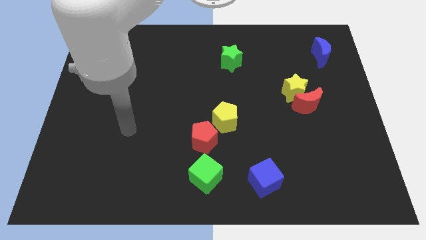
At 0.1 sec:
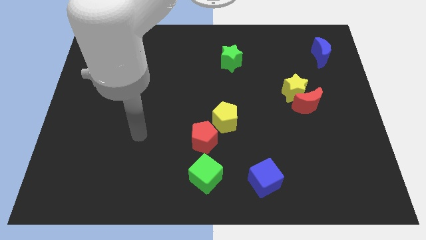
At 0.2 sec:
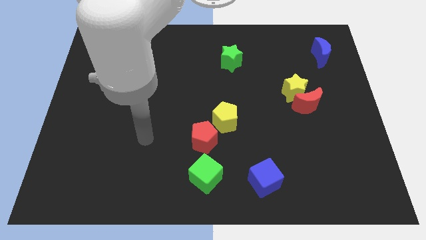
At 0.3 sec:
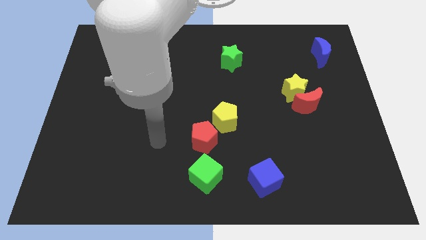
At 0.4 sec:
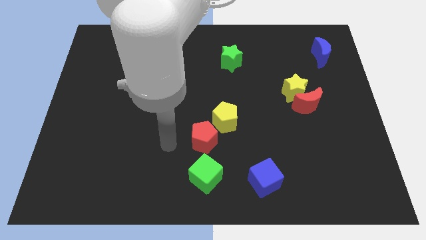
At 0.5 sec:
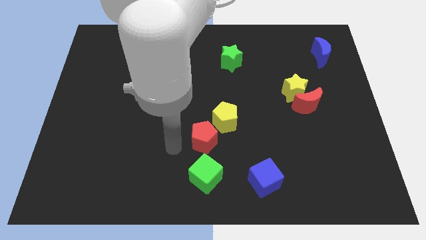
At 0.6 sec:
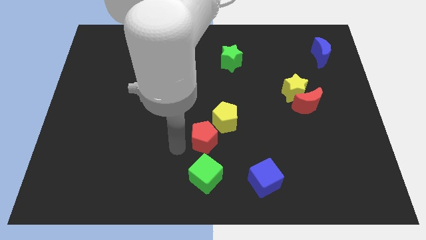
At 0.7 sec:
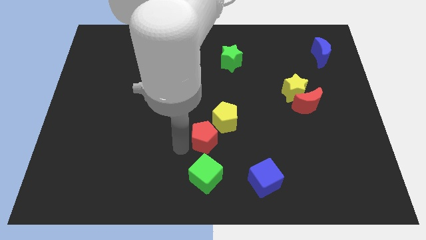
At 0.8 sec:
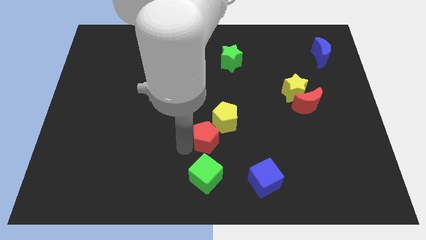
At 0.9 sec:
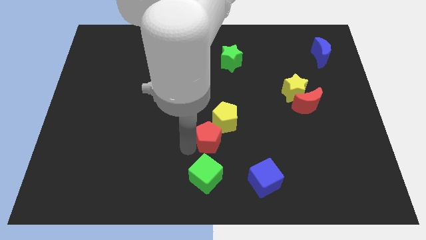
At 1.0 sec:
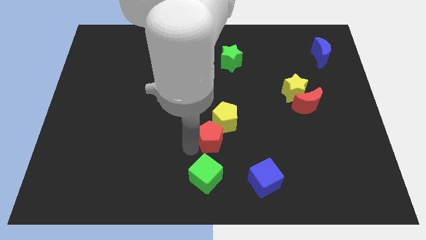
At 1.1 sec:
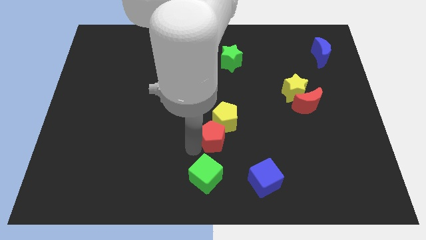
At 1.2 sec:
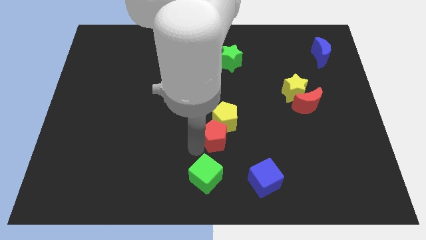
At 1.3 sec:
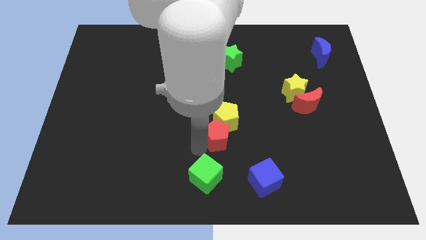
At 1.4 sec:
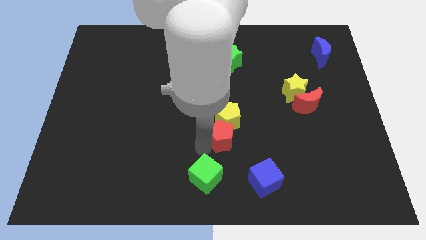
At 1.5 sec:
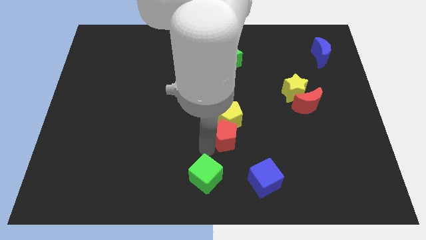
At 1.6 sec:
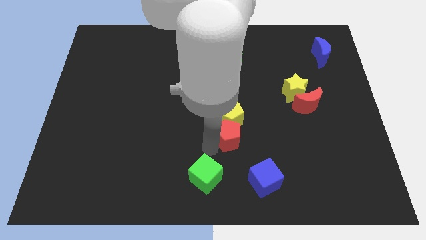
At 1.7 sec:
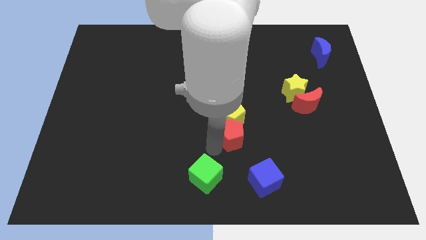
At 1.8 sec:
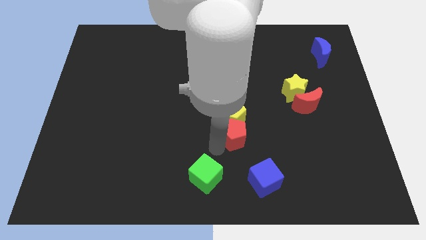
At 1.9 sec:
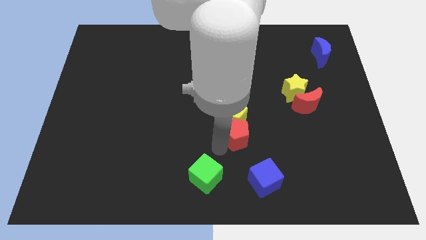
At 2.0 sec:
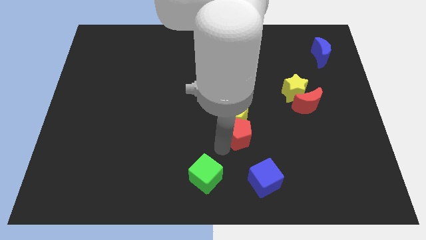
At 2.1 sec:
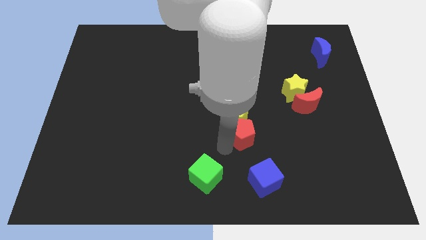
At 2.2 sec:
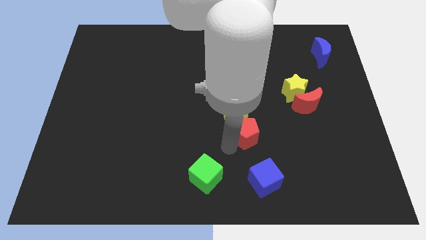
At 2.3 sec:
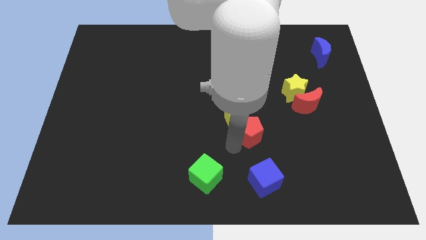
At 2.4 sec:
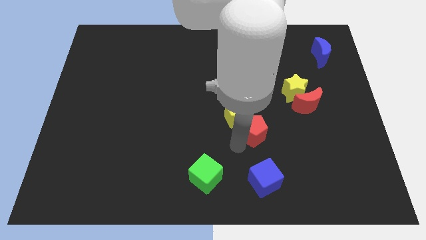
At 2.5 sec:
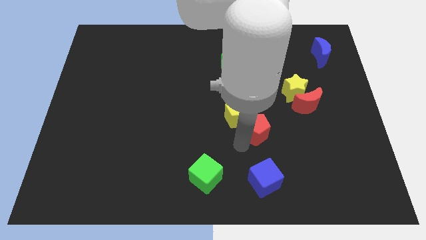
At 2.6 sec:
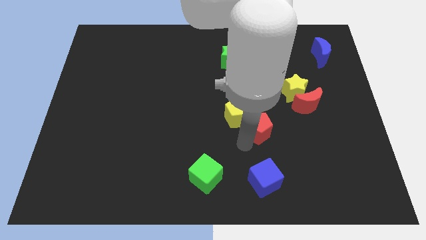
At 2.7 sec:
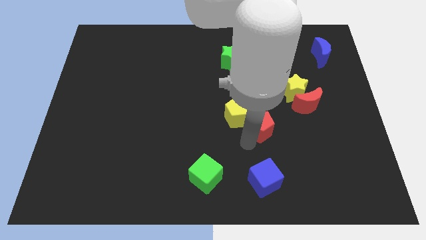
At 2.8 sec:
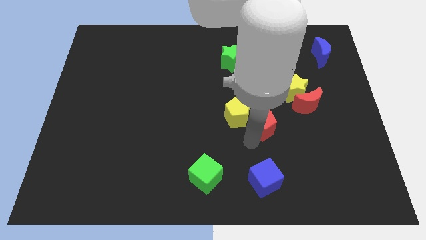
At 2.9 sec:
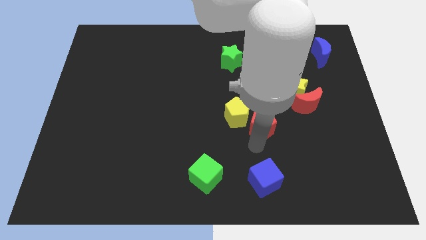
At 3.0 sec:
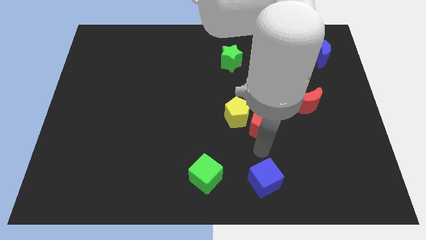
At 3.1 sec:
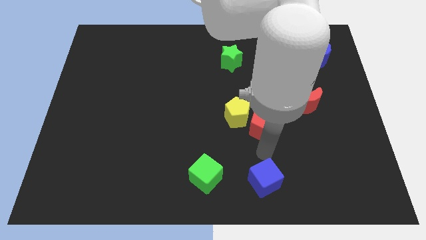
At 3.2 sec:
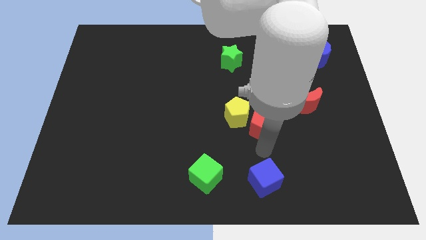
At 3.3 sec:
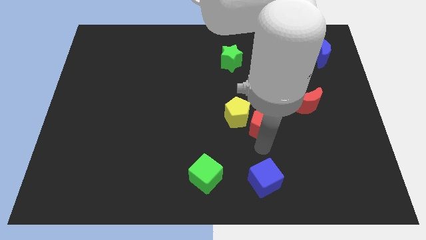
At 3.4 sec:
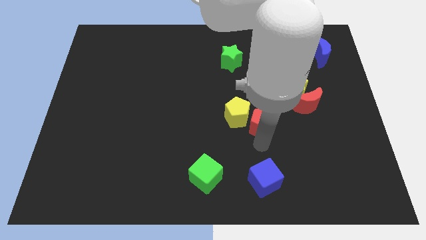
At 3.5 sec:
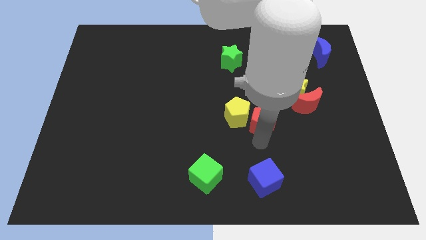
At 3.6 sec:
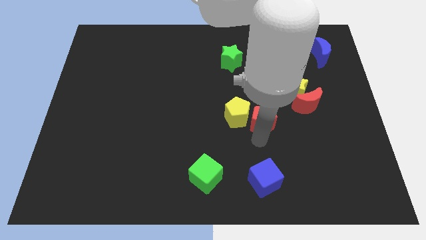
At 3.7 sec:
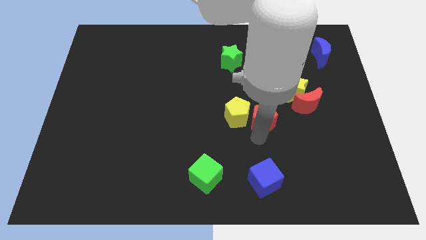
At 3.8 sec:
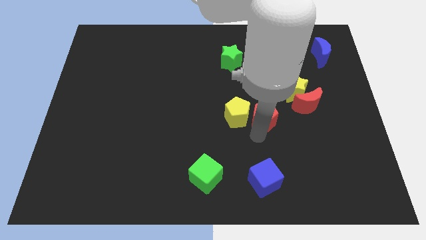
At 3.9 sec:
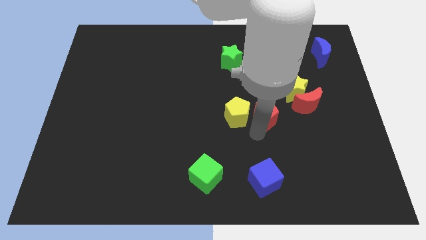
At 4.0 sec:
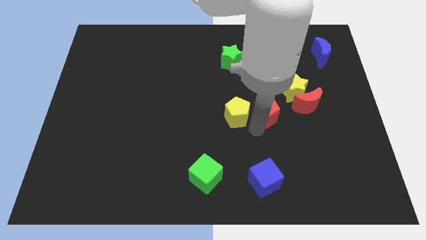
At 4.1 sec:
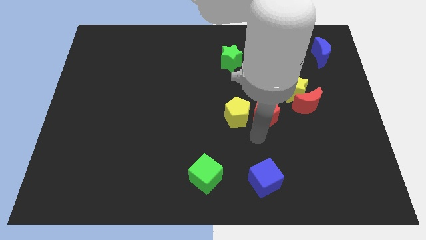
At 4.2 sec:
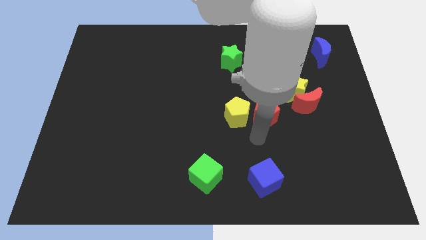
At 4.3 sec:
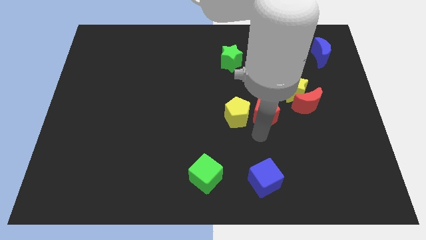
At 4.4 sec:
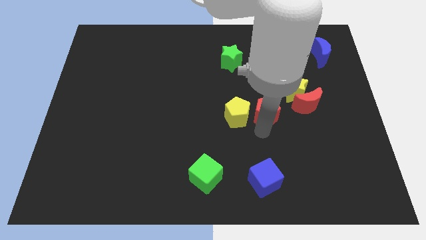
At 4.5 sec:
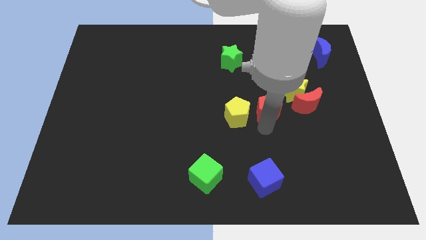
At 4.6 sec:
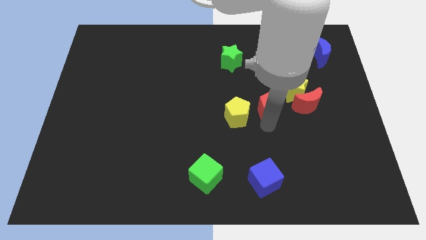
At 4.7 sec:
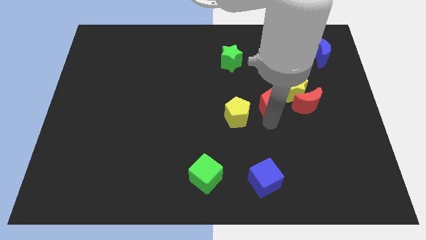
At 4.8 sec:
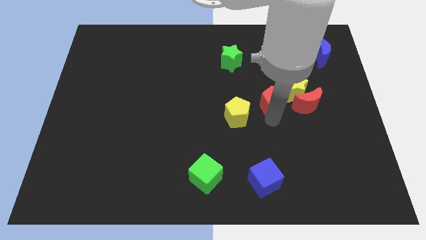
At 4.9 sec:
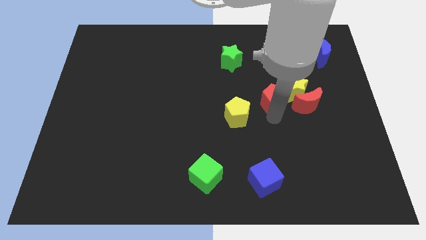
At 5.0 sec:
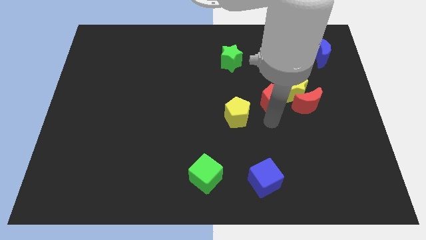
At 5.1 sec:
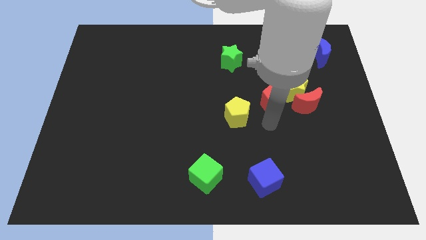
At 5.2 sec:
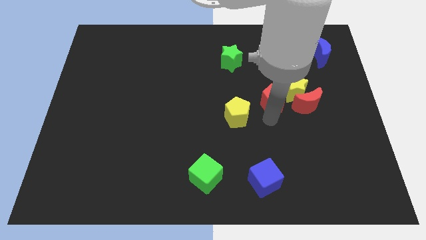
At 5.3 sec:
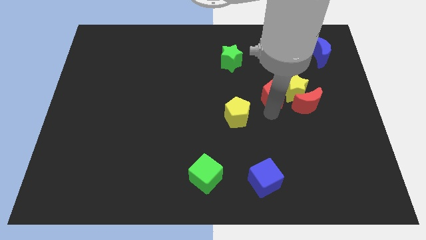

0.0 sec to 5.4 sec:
push the red pentagon diagonally upwards and right

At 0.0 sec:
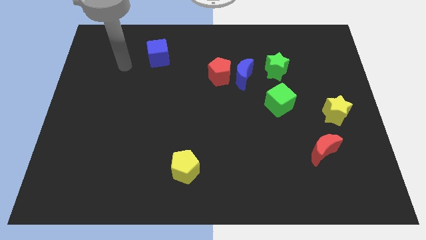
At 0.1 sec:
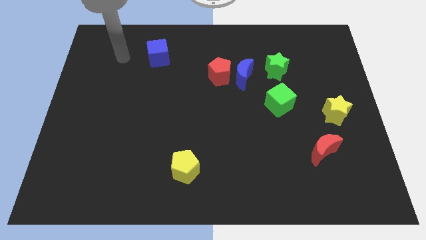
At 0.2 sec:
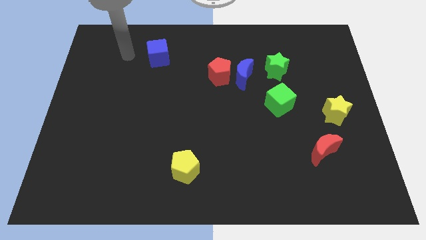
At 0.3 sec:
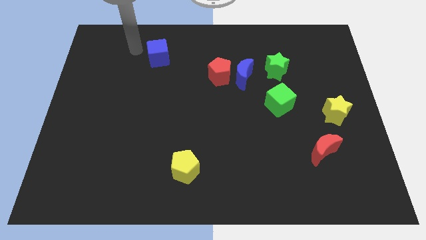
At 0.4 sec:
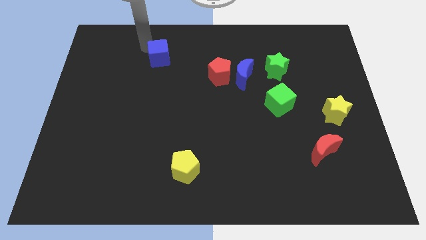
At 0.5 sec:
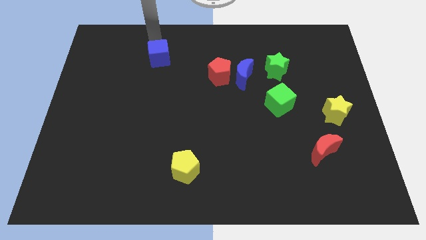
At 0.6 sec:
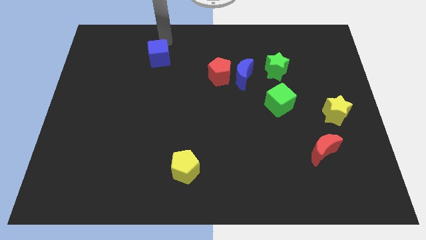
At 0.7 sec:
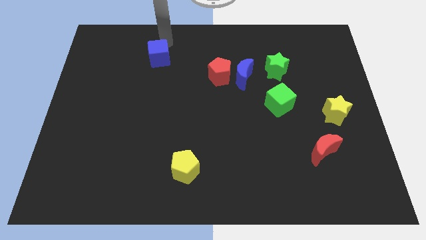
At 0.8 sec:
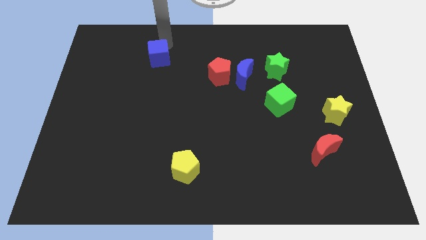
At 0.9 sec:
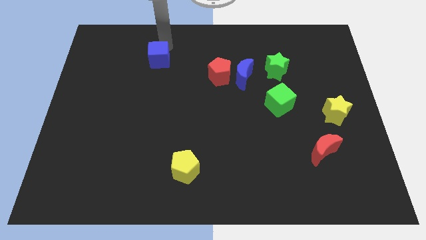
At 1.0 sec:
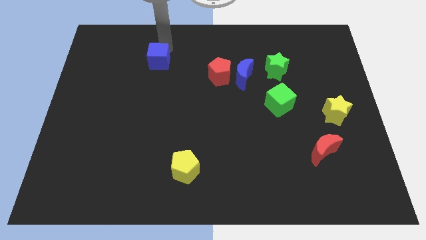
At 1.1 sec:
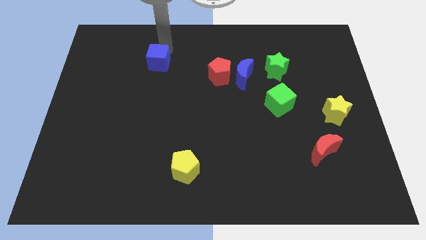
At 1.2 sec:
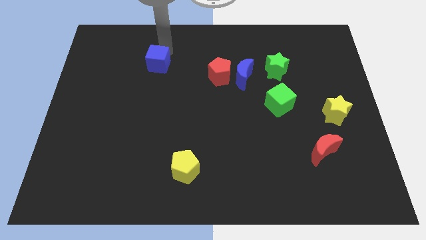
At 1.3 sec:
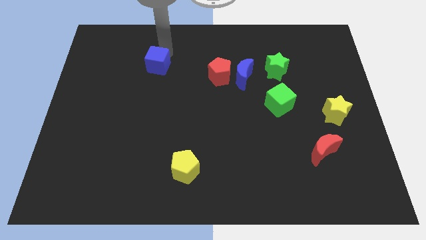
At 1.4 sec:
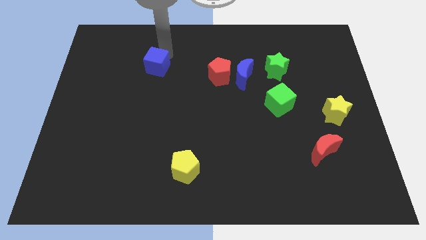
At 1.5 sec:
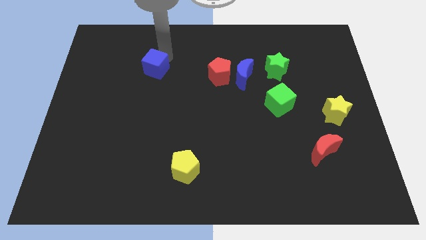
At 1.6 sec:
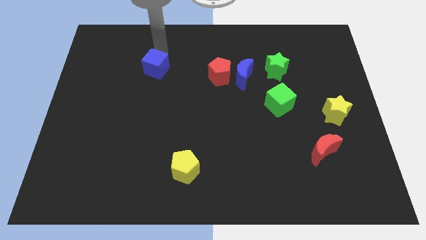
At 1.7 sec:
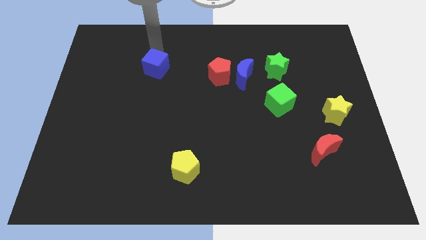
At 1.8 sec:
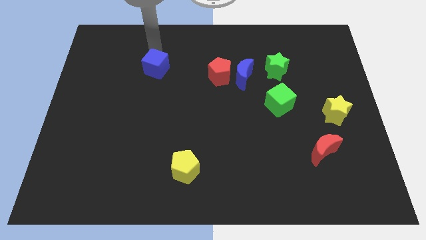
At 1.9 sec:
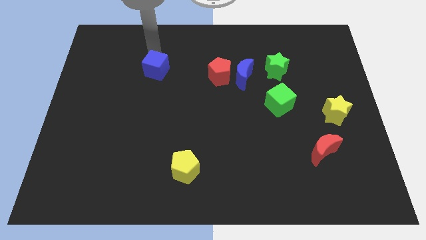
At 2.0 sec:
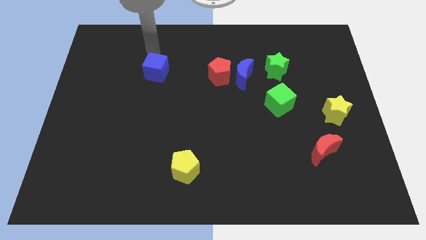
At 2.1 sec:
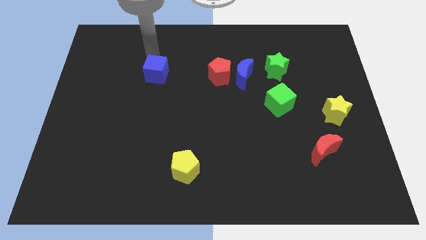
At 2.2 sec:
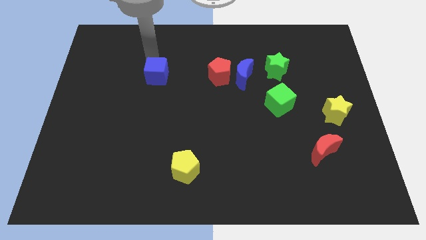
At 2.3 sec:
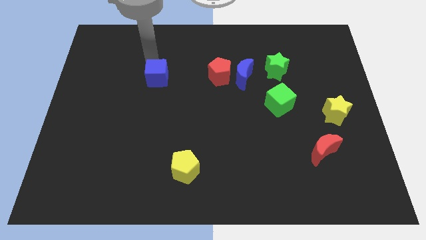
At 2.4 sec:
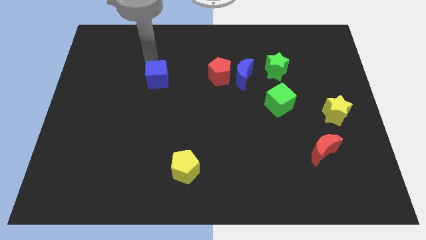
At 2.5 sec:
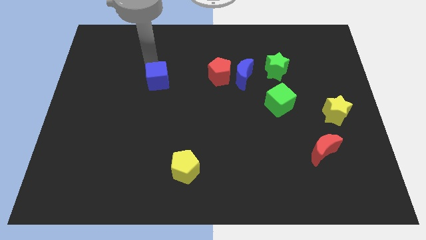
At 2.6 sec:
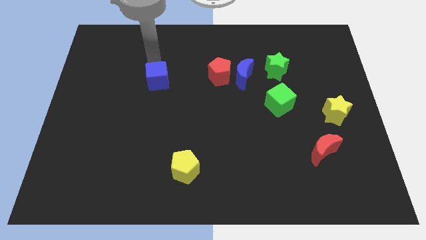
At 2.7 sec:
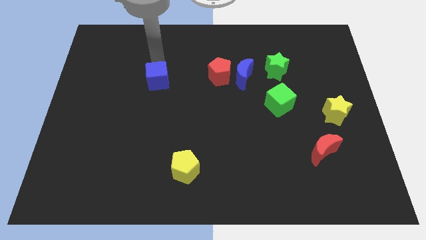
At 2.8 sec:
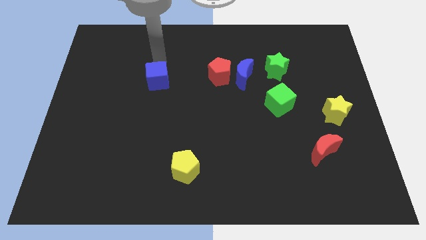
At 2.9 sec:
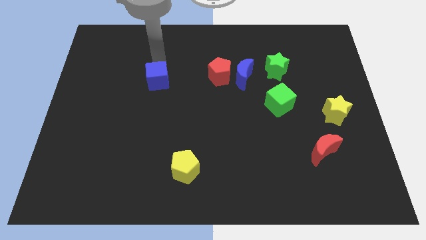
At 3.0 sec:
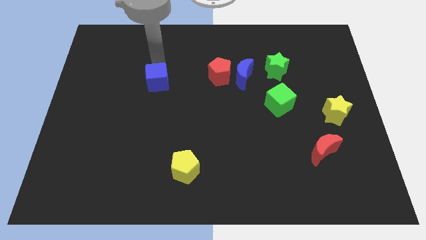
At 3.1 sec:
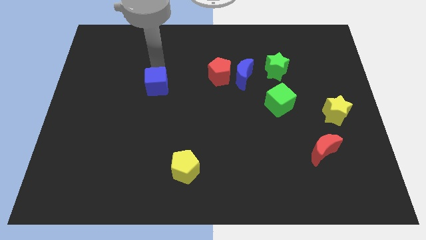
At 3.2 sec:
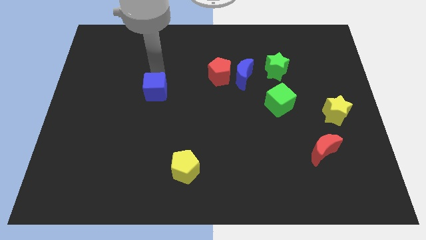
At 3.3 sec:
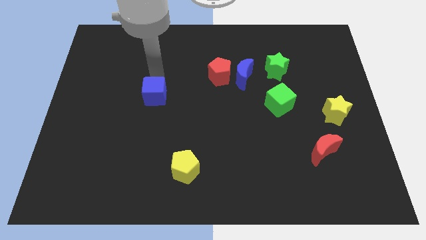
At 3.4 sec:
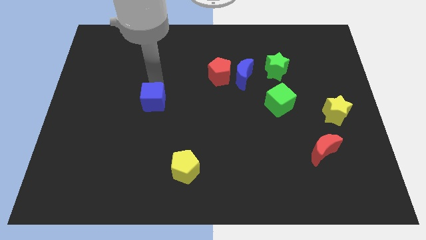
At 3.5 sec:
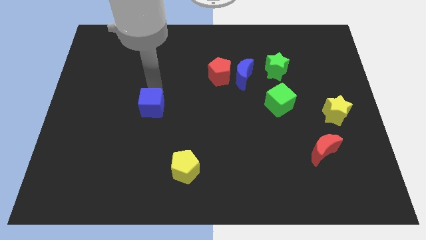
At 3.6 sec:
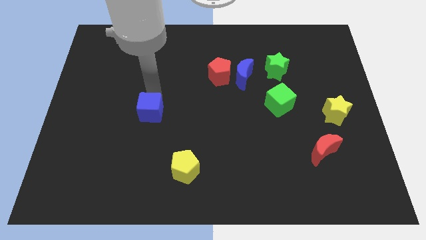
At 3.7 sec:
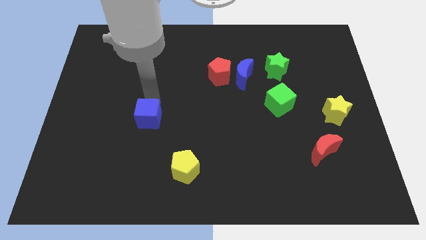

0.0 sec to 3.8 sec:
push the blue cube down
